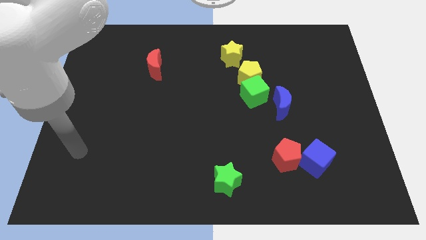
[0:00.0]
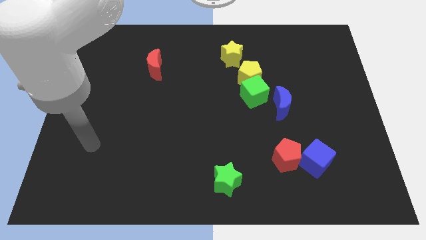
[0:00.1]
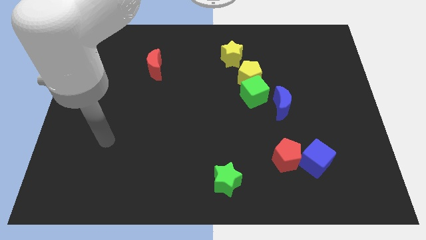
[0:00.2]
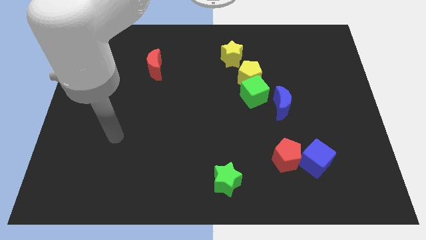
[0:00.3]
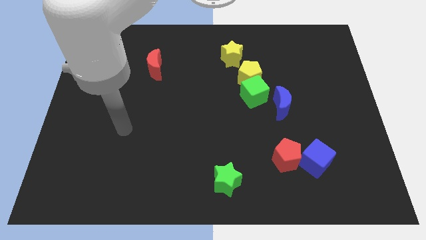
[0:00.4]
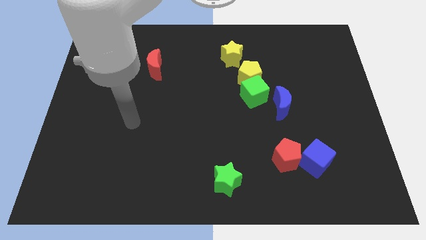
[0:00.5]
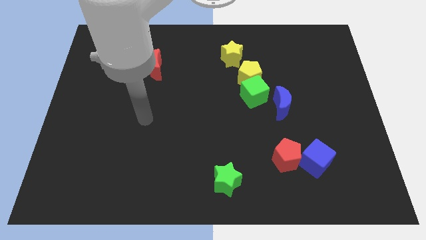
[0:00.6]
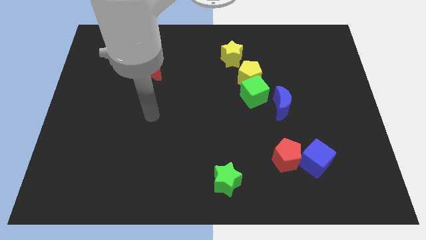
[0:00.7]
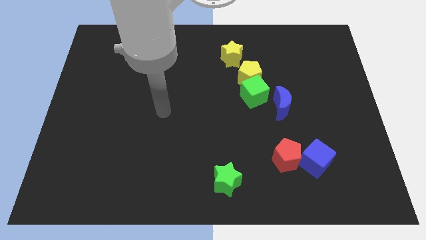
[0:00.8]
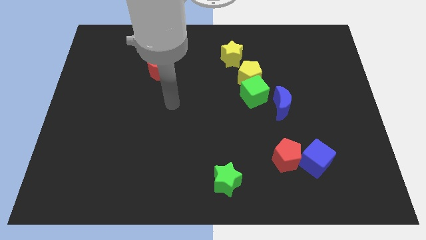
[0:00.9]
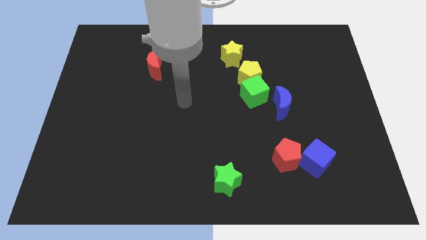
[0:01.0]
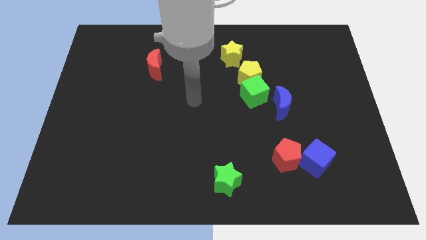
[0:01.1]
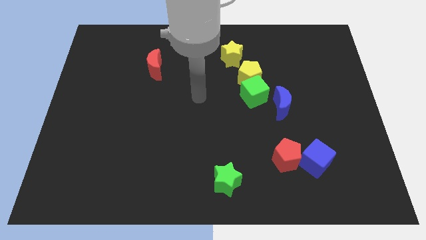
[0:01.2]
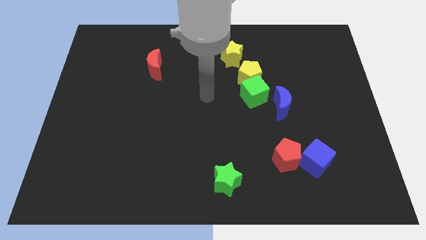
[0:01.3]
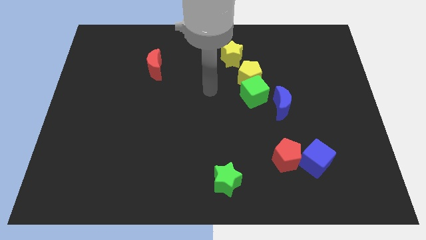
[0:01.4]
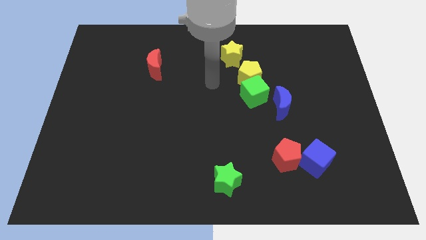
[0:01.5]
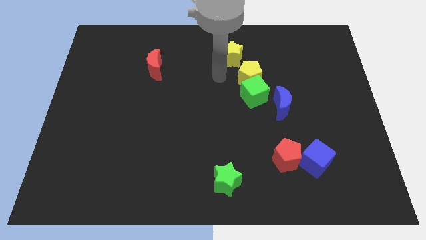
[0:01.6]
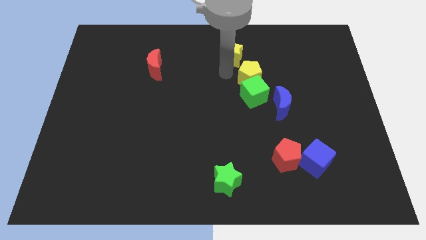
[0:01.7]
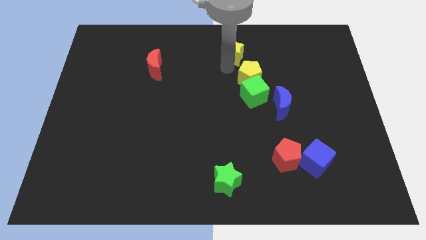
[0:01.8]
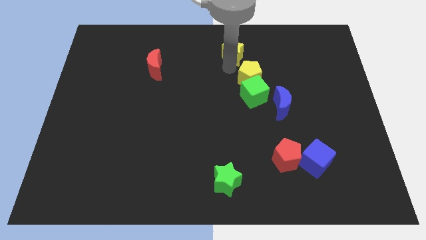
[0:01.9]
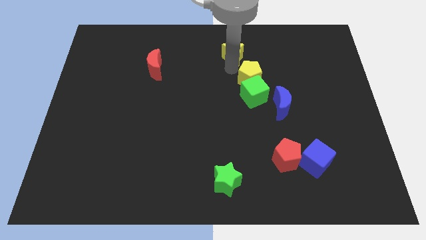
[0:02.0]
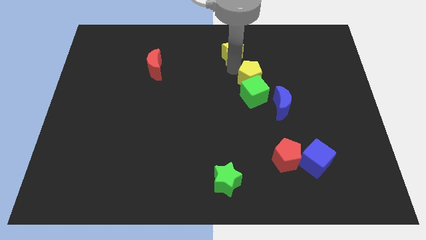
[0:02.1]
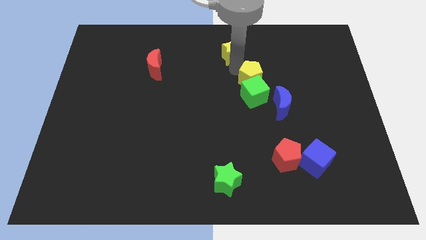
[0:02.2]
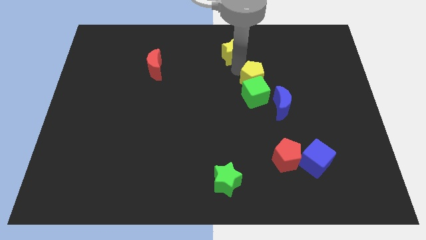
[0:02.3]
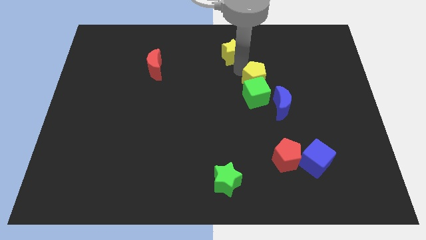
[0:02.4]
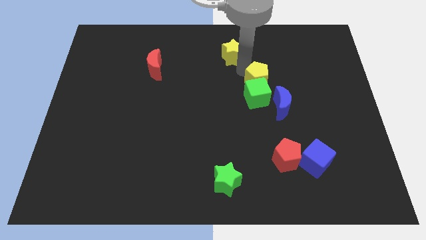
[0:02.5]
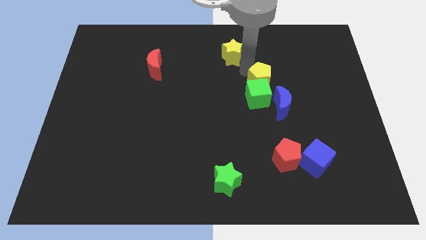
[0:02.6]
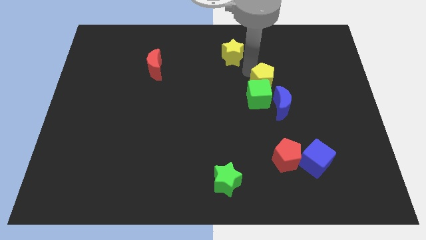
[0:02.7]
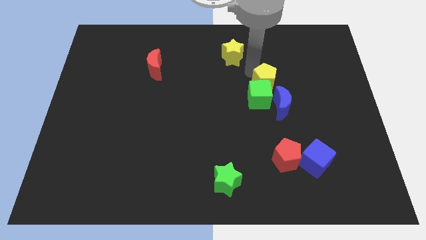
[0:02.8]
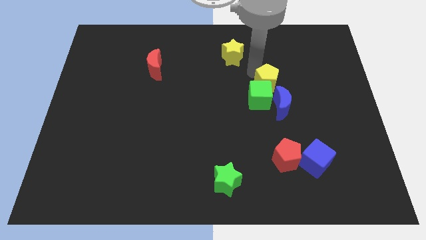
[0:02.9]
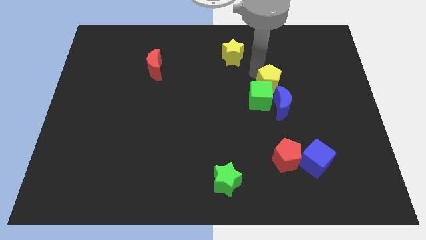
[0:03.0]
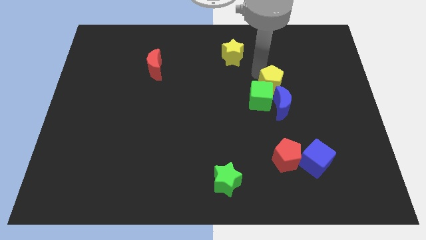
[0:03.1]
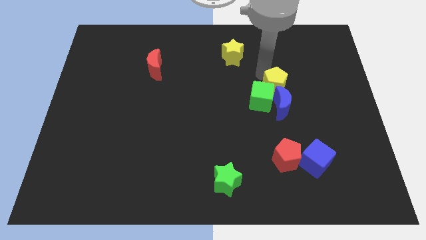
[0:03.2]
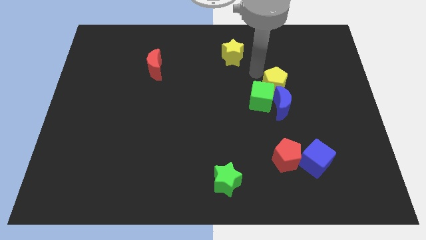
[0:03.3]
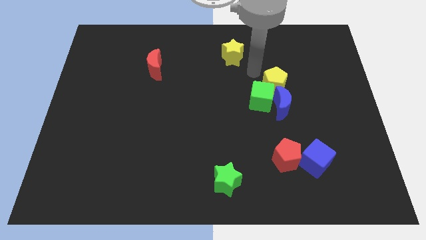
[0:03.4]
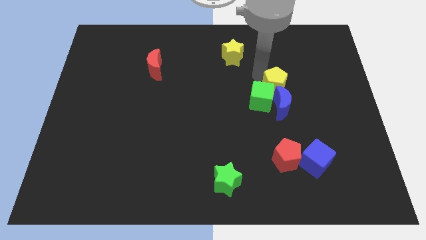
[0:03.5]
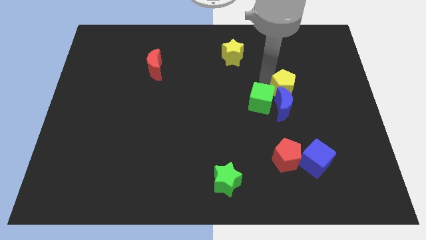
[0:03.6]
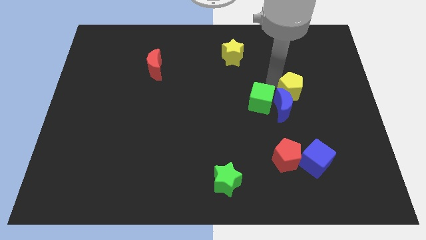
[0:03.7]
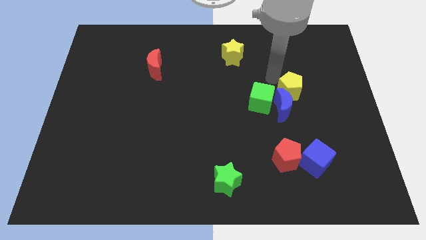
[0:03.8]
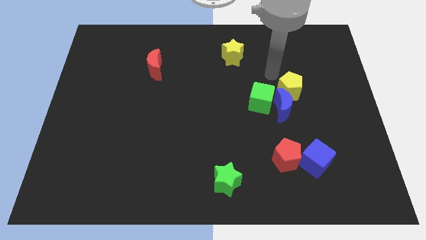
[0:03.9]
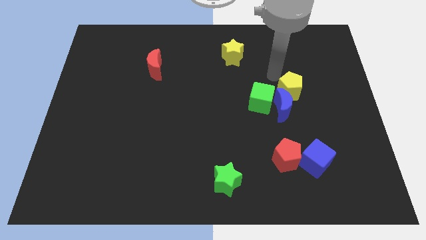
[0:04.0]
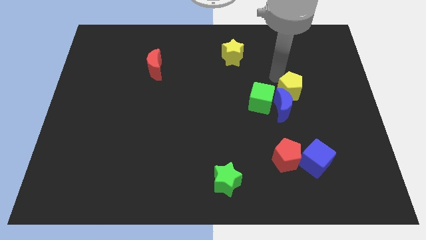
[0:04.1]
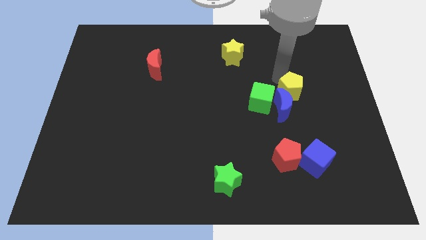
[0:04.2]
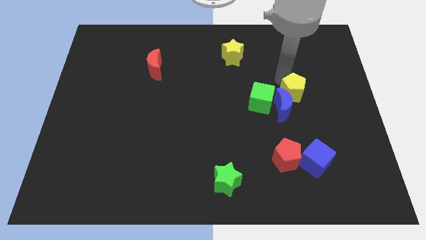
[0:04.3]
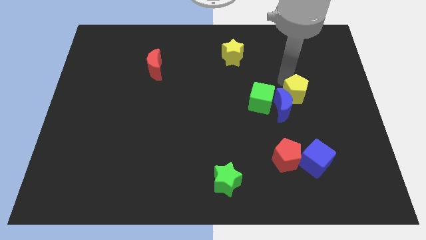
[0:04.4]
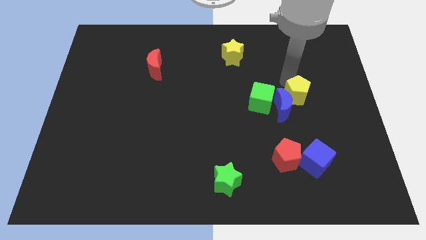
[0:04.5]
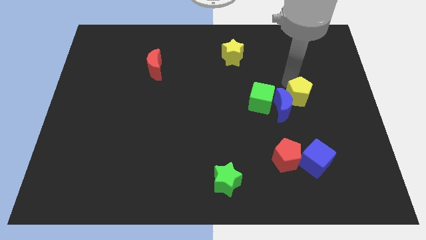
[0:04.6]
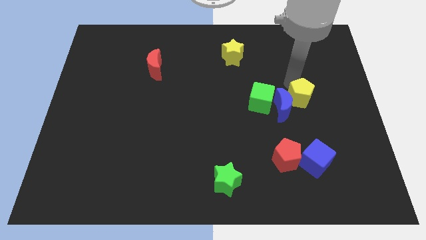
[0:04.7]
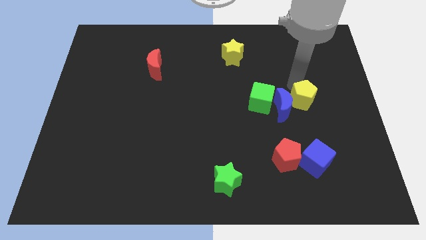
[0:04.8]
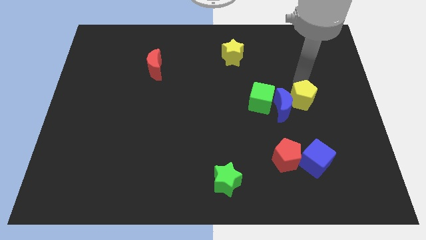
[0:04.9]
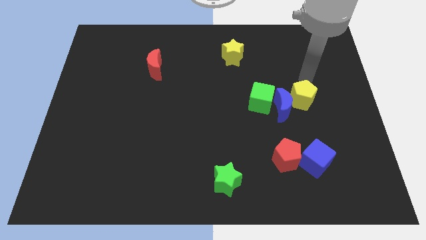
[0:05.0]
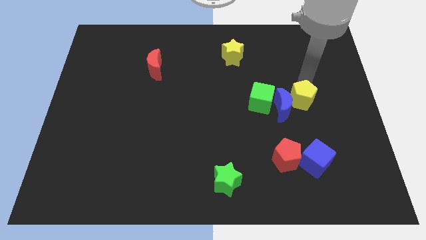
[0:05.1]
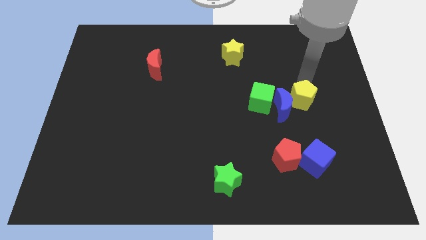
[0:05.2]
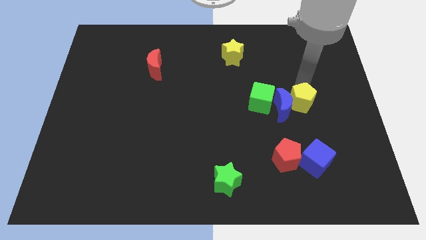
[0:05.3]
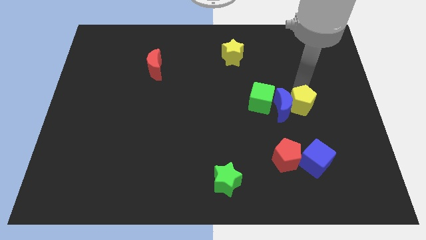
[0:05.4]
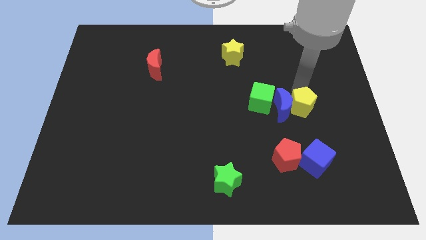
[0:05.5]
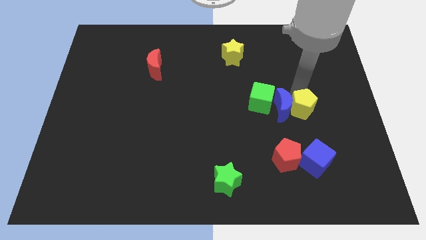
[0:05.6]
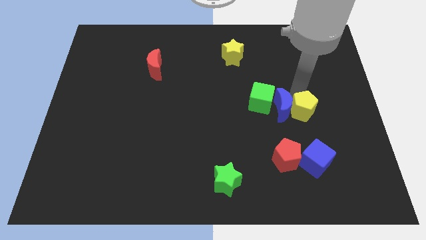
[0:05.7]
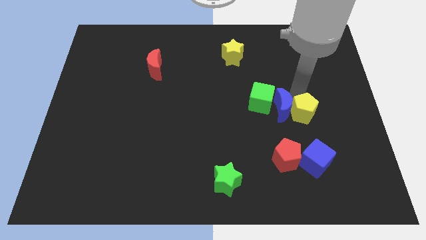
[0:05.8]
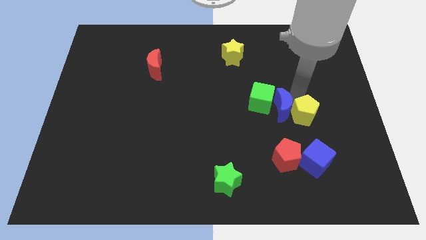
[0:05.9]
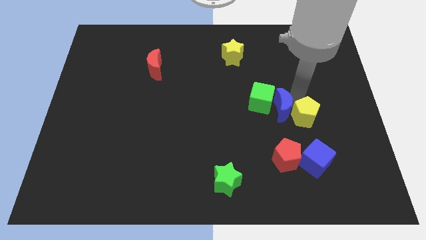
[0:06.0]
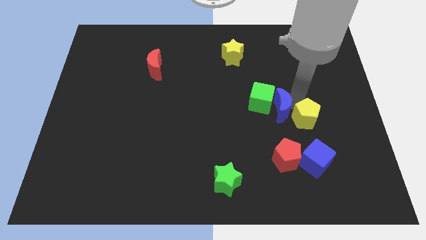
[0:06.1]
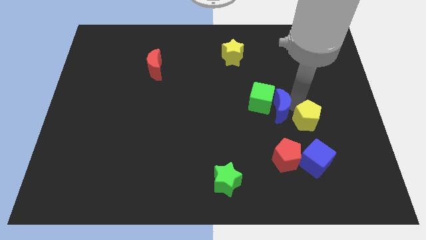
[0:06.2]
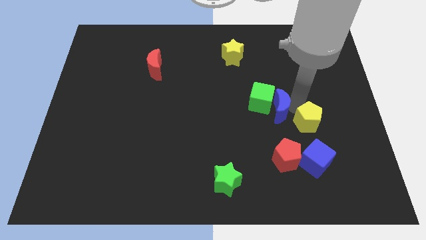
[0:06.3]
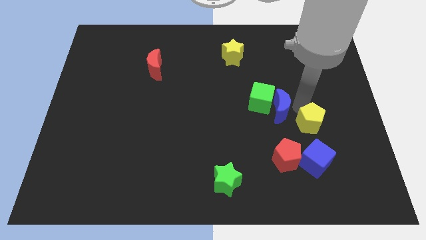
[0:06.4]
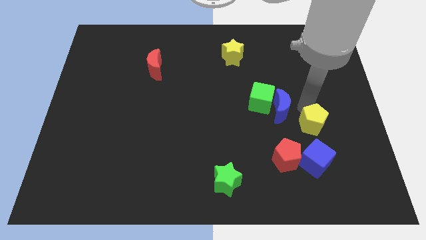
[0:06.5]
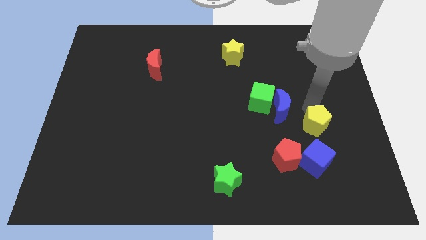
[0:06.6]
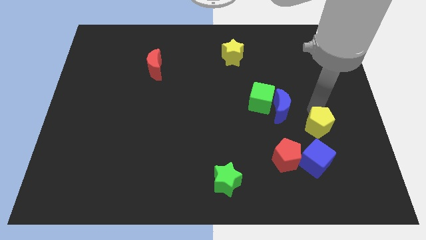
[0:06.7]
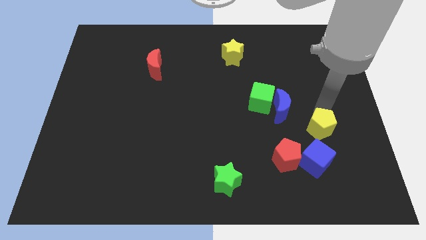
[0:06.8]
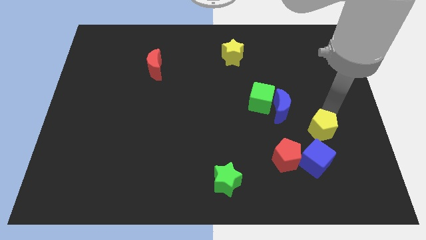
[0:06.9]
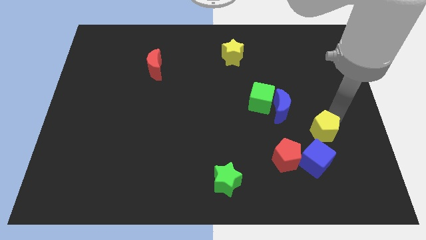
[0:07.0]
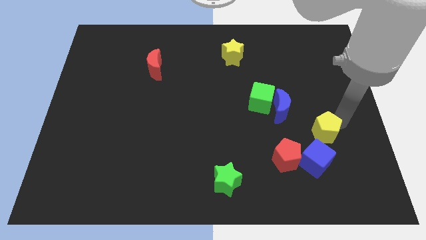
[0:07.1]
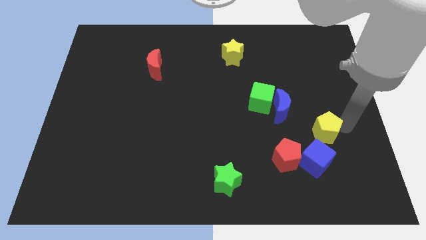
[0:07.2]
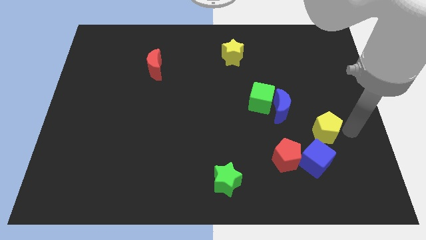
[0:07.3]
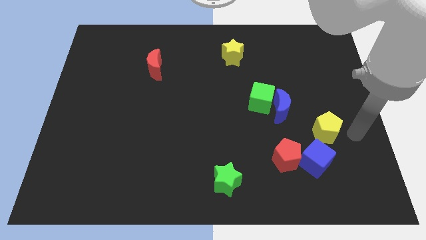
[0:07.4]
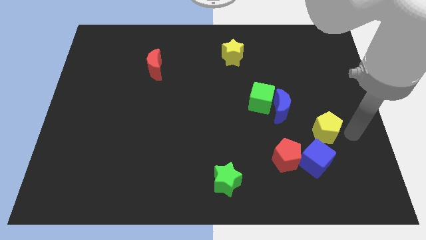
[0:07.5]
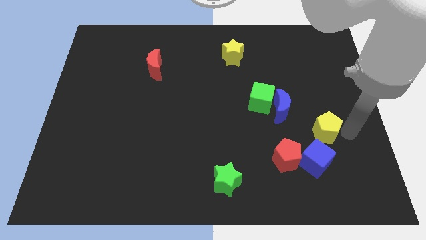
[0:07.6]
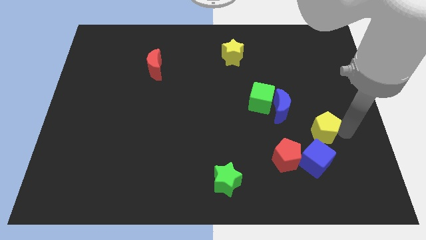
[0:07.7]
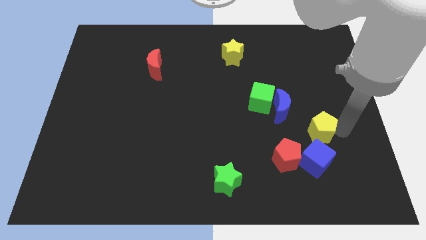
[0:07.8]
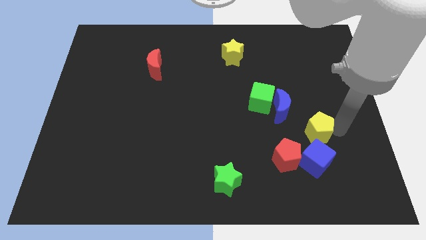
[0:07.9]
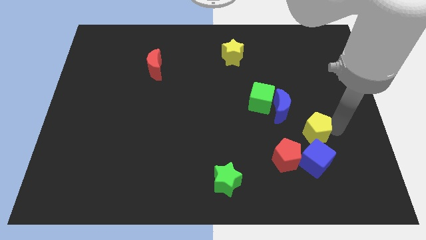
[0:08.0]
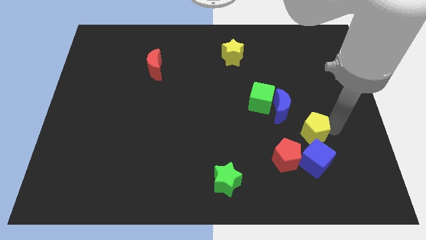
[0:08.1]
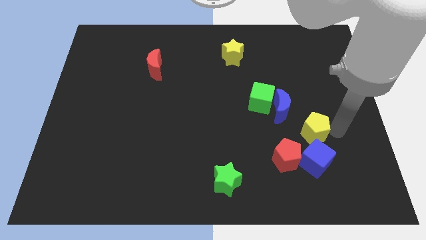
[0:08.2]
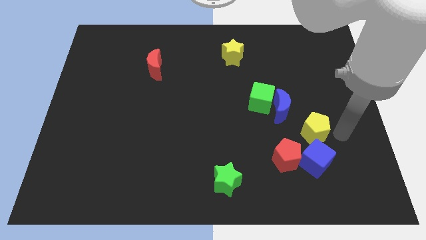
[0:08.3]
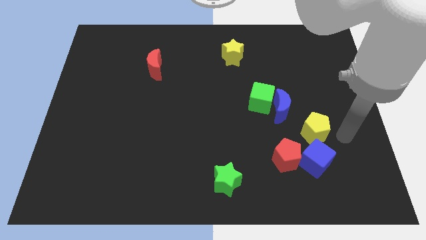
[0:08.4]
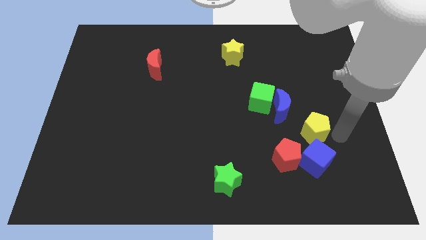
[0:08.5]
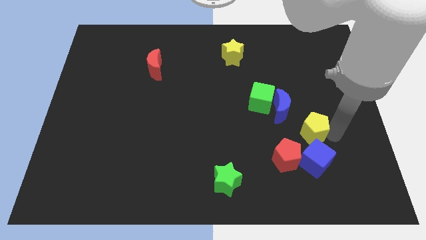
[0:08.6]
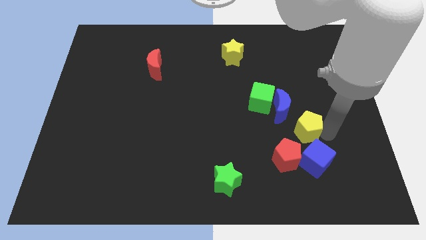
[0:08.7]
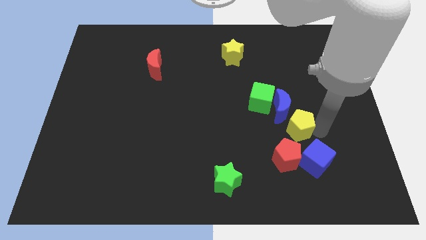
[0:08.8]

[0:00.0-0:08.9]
slide the yellow pentagon to the top left side of the blue cube
